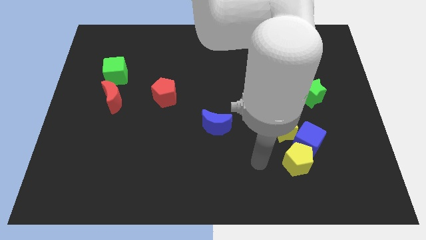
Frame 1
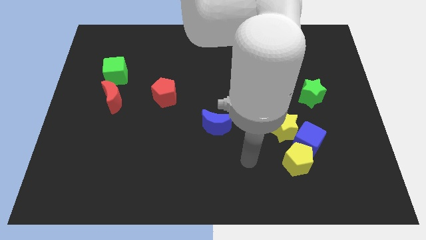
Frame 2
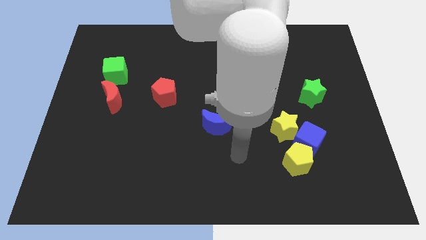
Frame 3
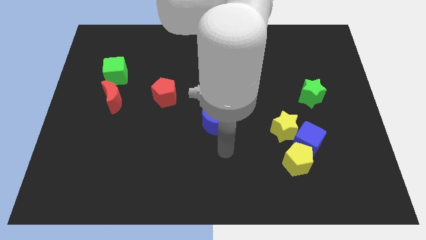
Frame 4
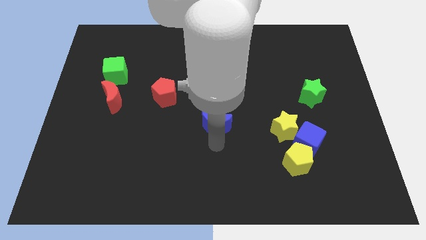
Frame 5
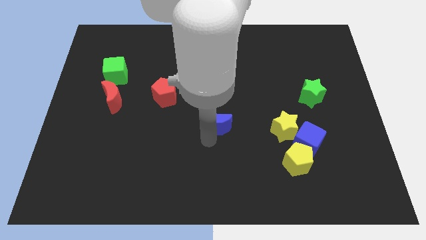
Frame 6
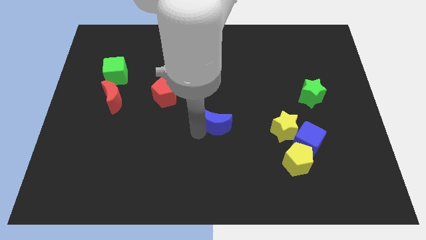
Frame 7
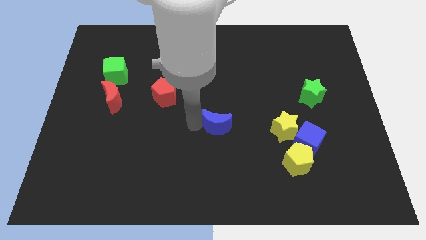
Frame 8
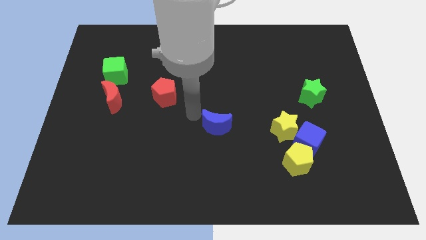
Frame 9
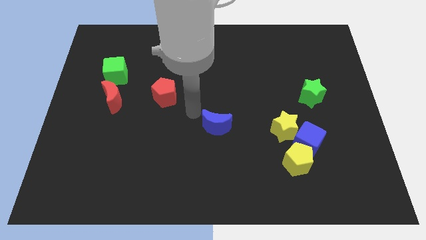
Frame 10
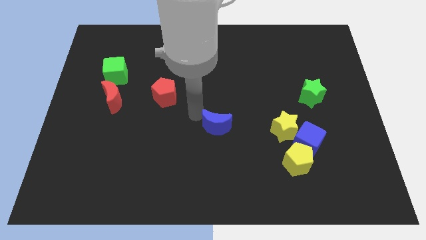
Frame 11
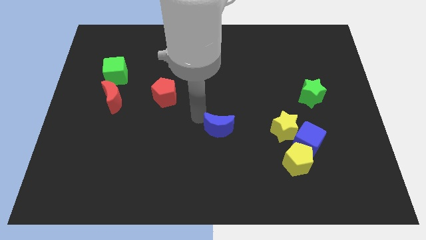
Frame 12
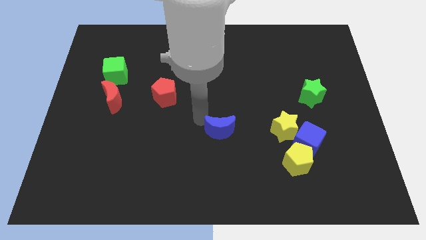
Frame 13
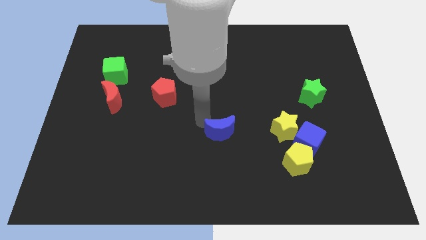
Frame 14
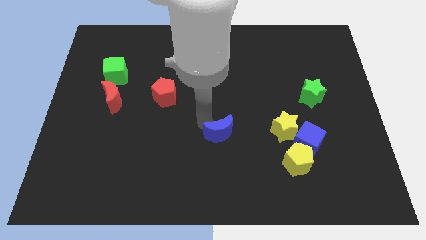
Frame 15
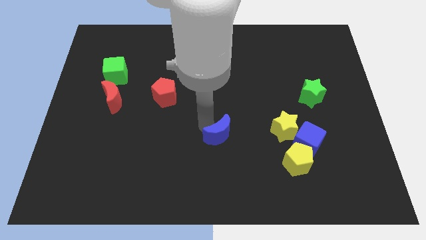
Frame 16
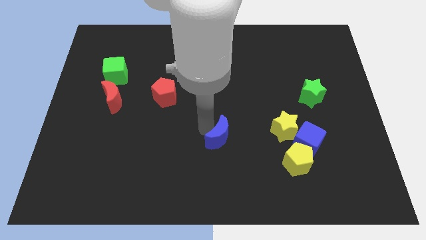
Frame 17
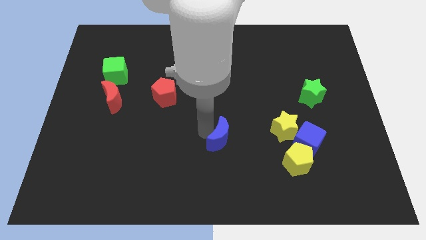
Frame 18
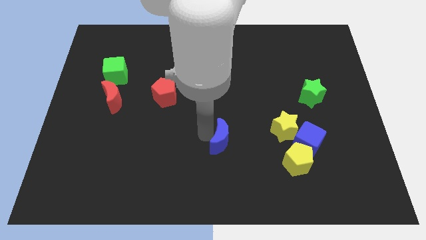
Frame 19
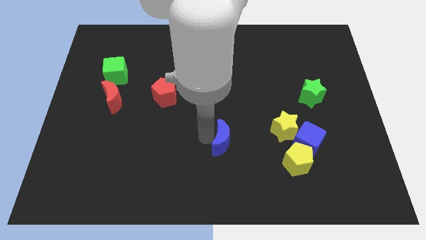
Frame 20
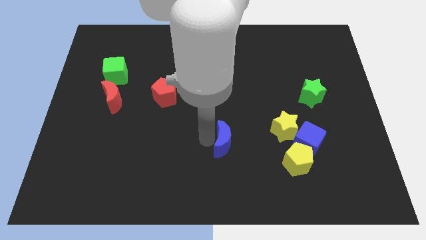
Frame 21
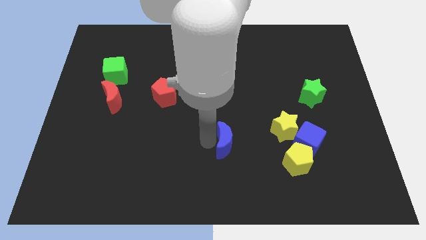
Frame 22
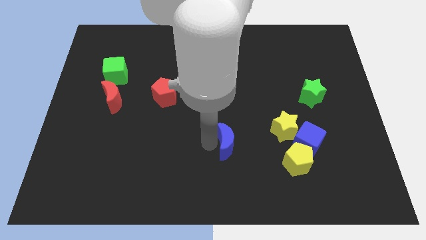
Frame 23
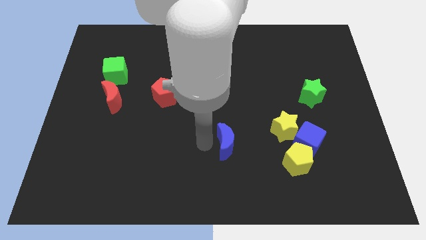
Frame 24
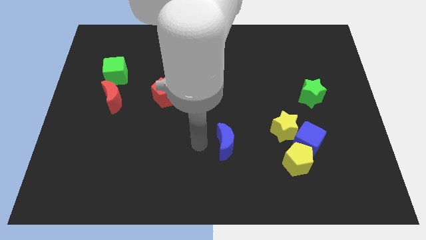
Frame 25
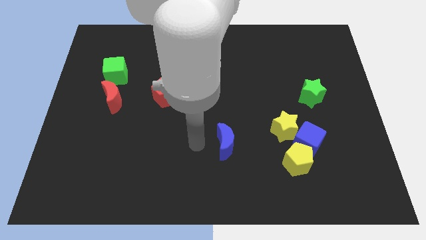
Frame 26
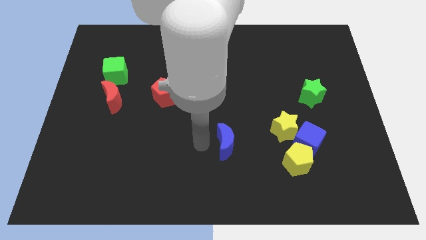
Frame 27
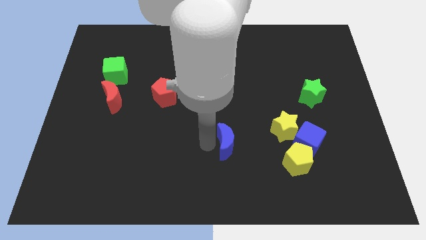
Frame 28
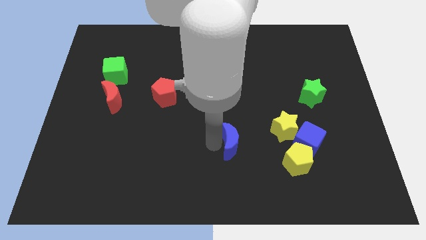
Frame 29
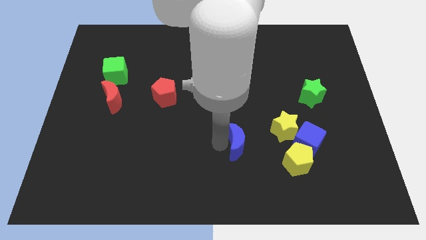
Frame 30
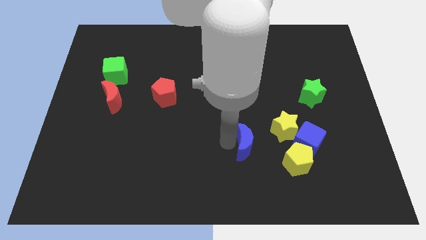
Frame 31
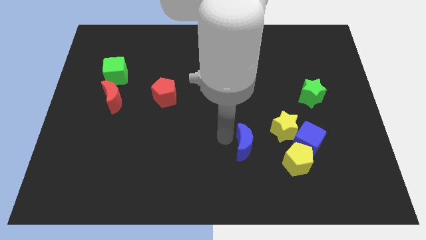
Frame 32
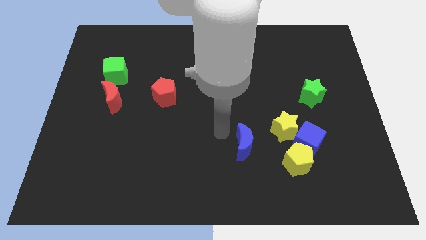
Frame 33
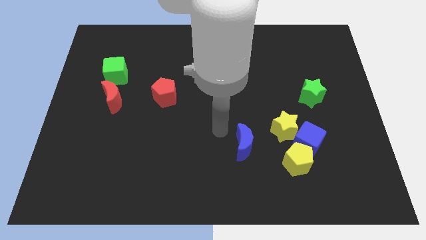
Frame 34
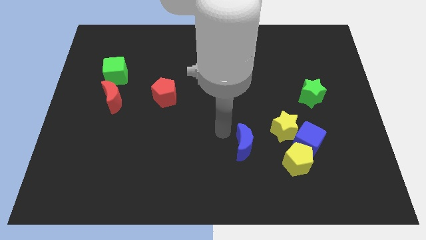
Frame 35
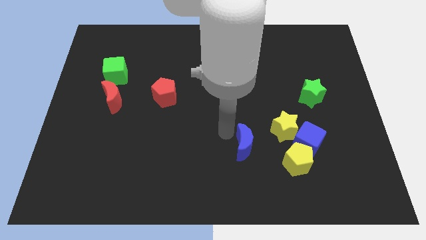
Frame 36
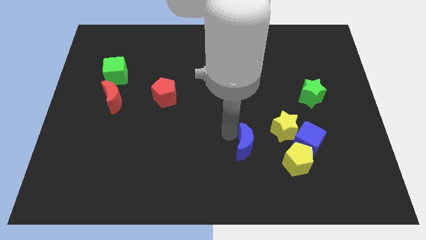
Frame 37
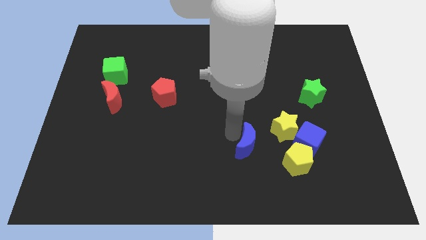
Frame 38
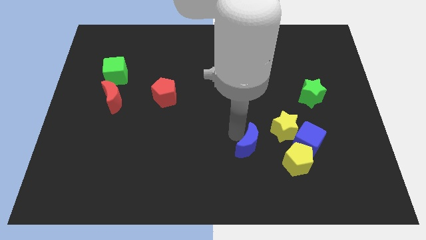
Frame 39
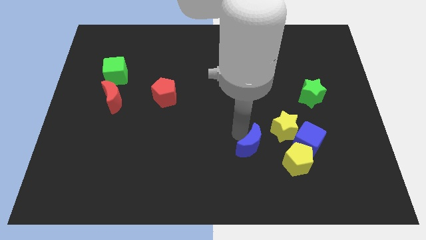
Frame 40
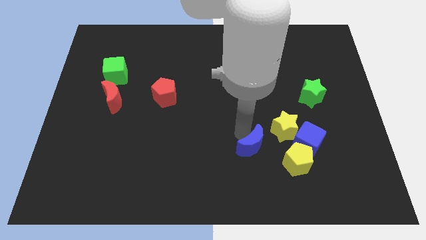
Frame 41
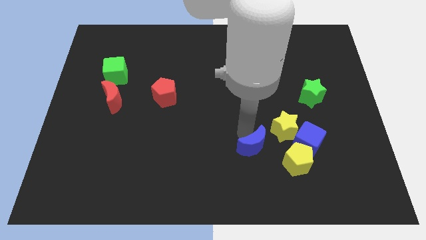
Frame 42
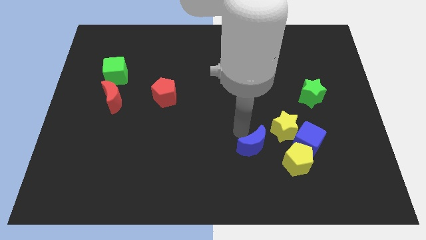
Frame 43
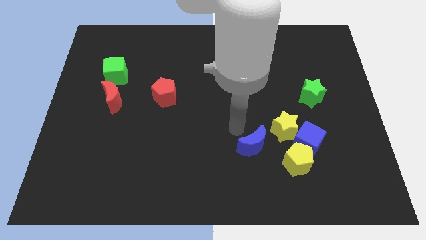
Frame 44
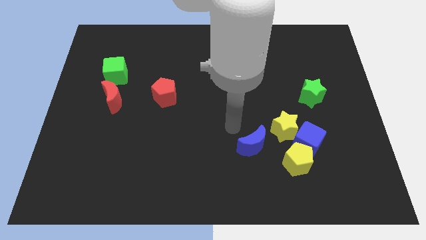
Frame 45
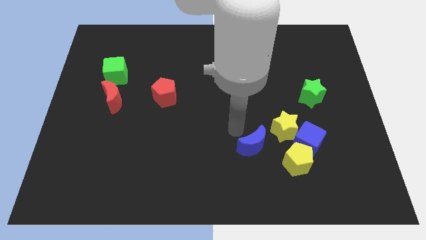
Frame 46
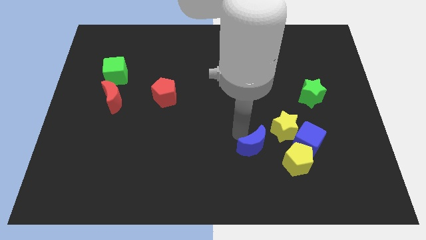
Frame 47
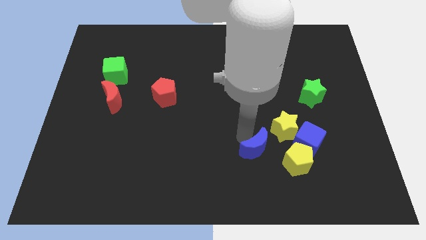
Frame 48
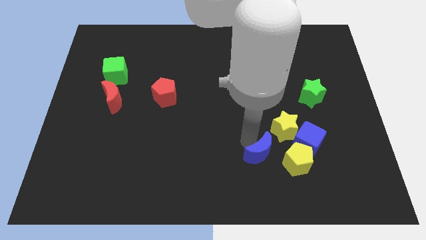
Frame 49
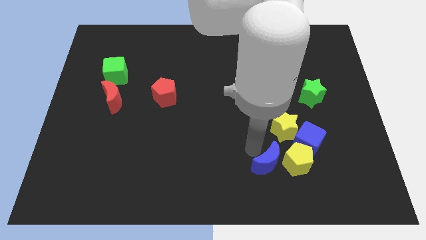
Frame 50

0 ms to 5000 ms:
slide the blue moon next to the yellow pentagon

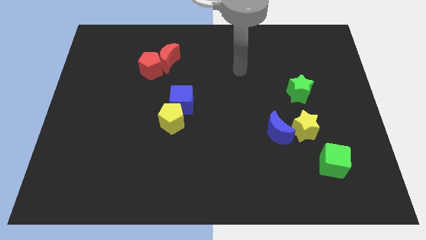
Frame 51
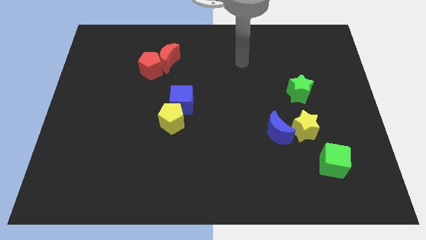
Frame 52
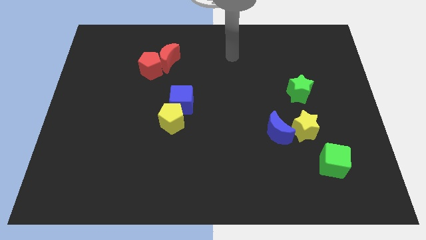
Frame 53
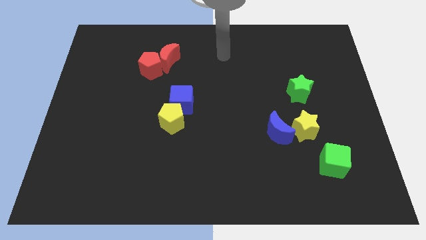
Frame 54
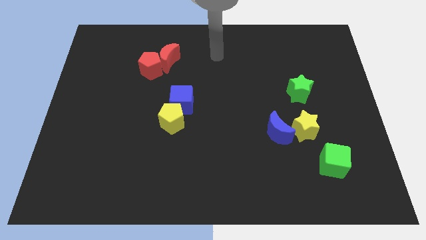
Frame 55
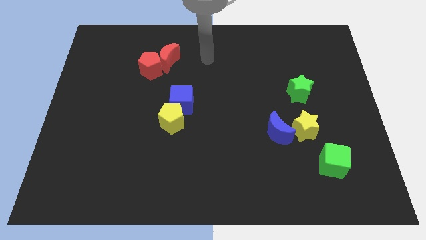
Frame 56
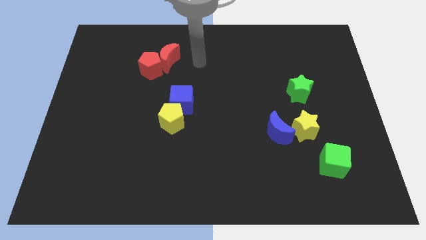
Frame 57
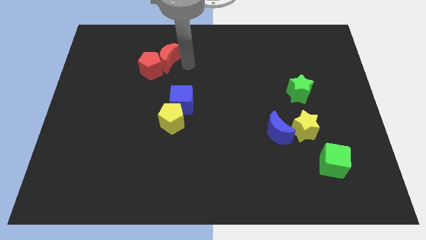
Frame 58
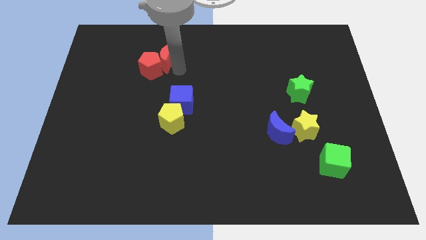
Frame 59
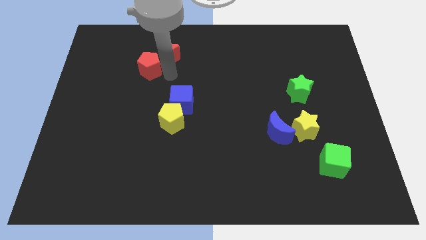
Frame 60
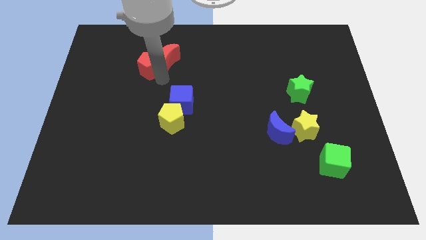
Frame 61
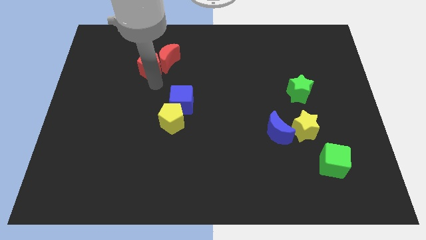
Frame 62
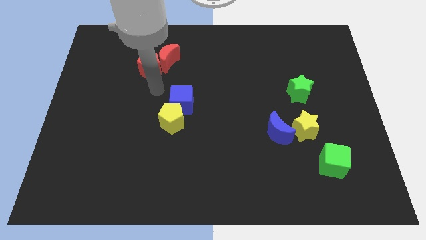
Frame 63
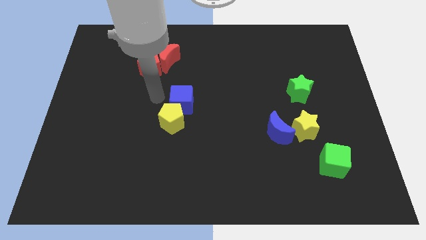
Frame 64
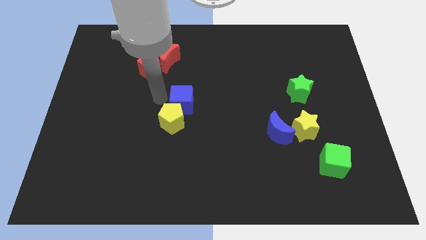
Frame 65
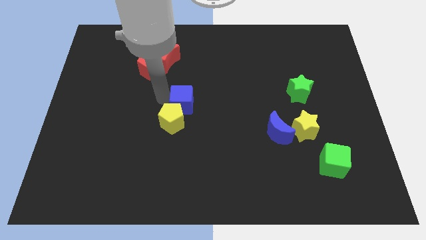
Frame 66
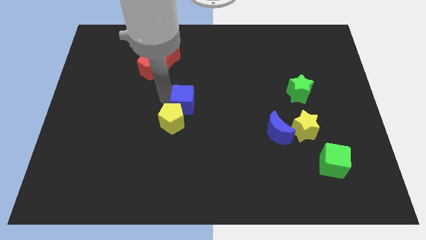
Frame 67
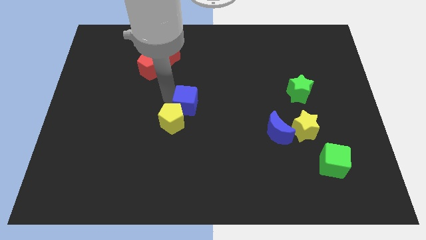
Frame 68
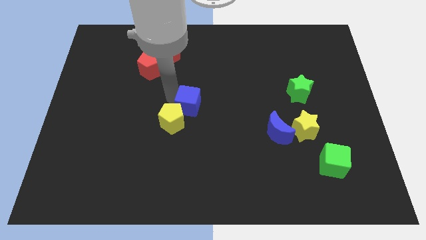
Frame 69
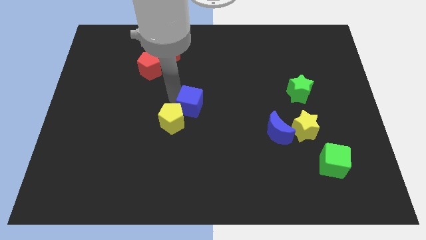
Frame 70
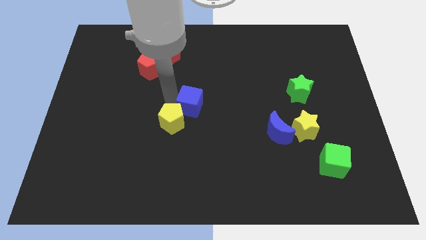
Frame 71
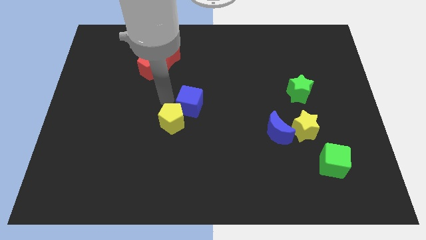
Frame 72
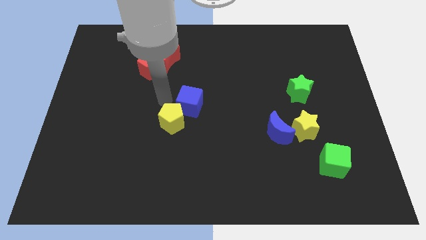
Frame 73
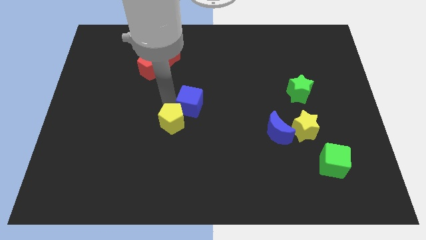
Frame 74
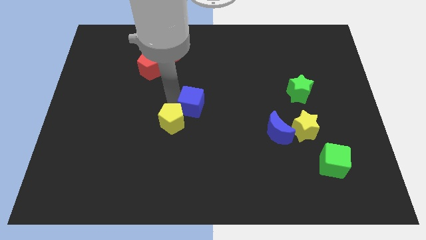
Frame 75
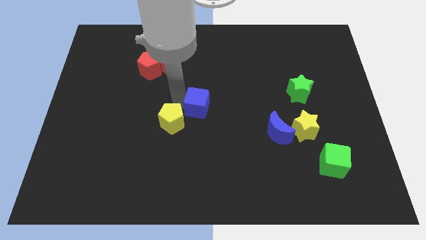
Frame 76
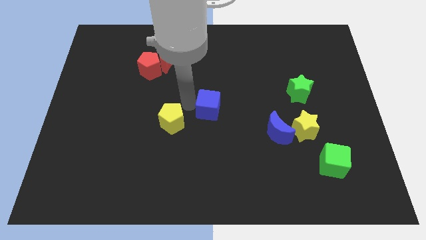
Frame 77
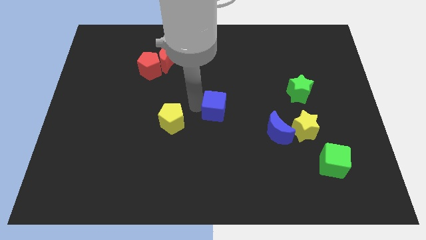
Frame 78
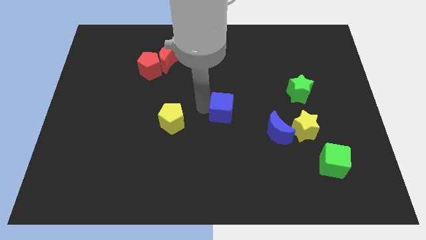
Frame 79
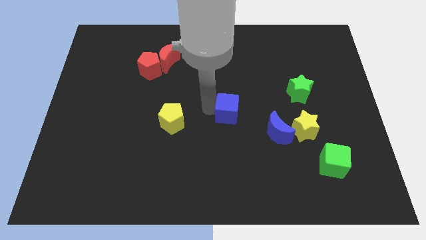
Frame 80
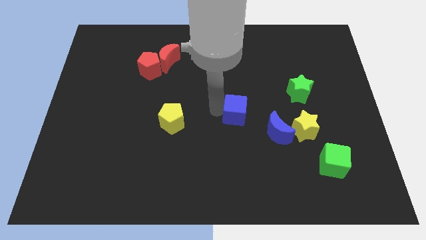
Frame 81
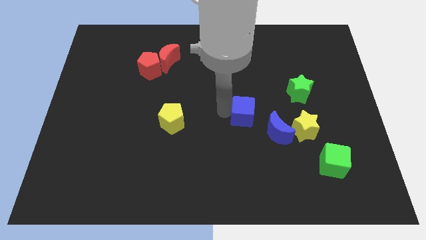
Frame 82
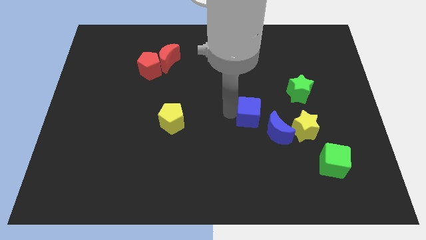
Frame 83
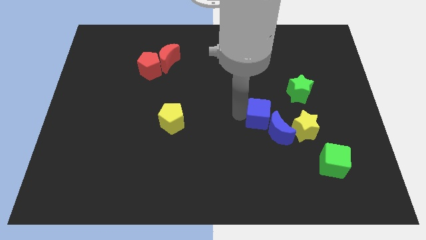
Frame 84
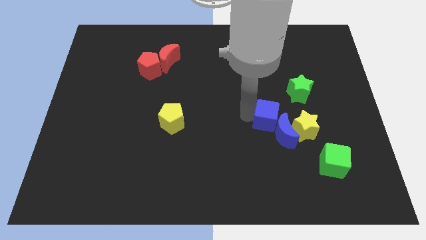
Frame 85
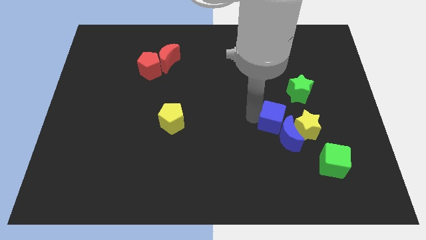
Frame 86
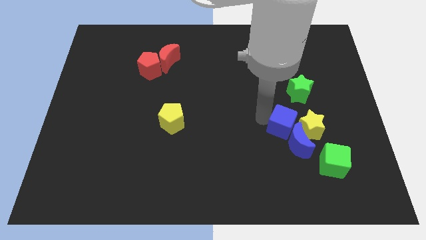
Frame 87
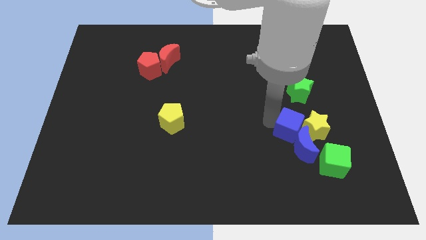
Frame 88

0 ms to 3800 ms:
push the blue cube towards the yellow star
